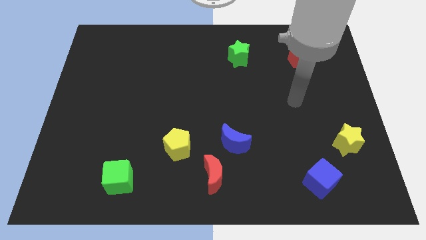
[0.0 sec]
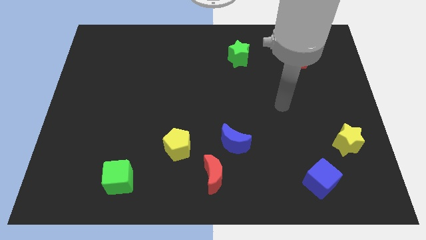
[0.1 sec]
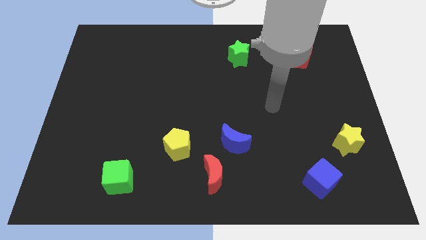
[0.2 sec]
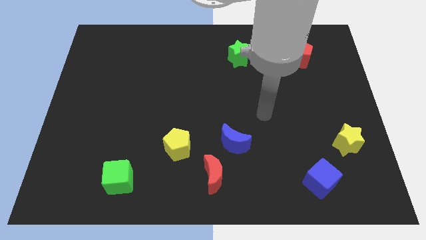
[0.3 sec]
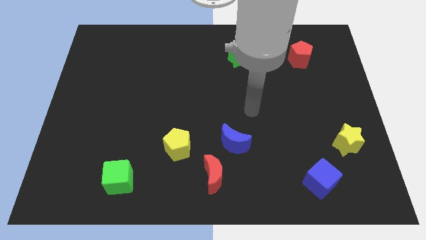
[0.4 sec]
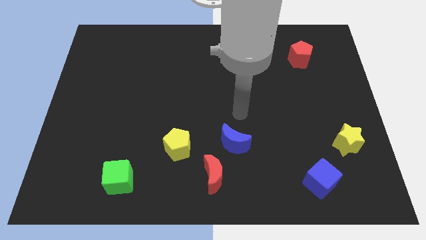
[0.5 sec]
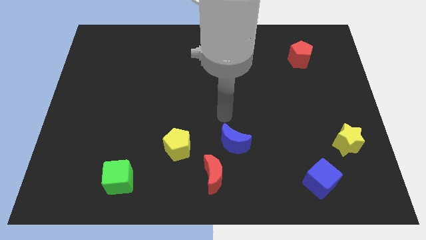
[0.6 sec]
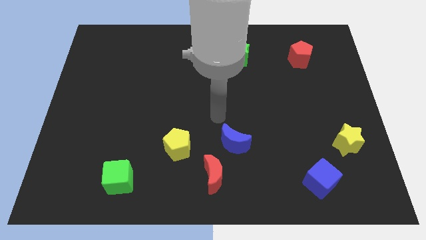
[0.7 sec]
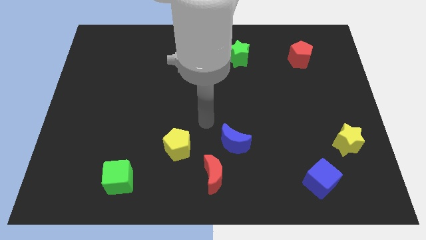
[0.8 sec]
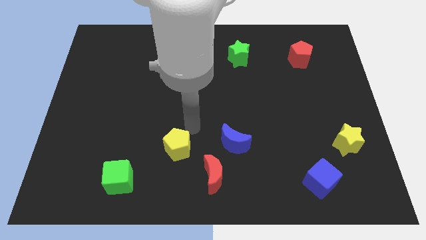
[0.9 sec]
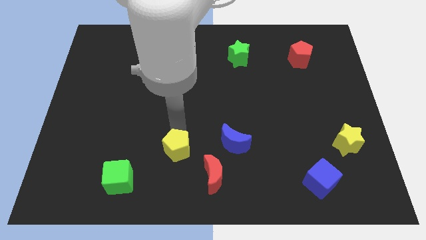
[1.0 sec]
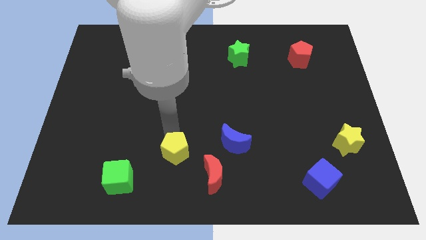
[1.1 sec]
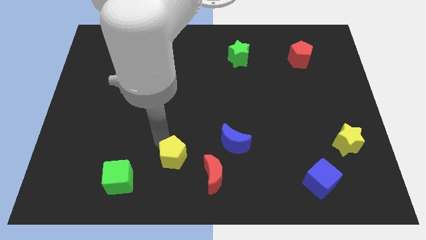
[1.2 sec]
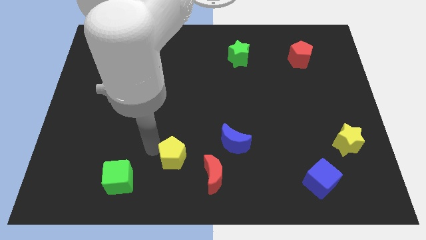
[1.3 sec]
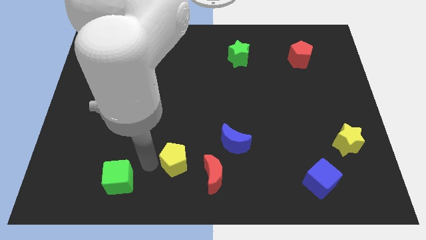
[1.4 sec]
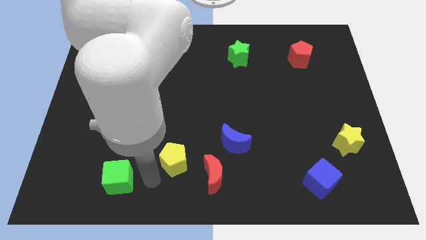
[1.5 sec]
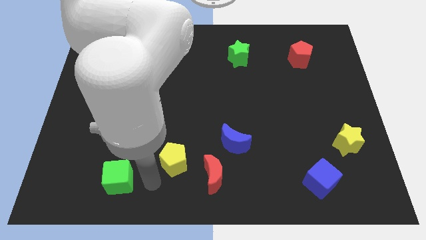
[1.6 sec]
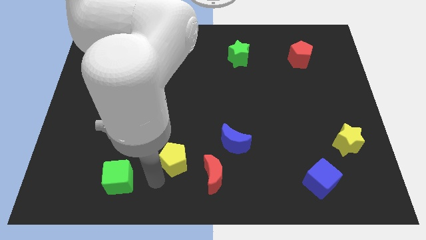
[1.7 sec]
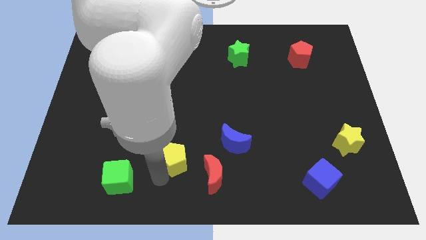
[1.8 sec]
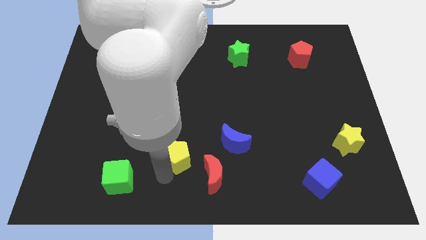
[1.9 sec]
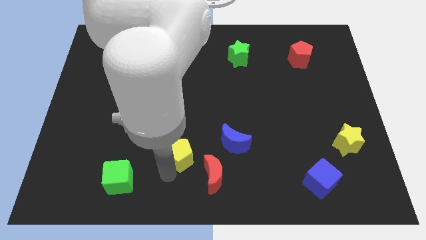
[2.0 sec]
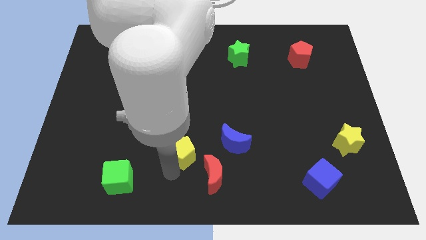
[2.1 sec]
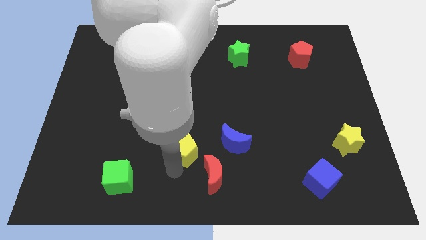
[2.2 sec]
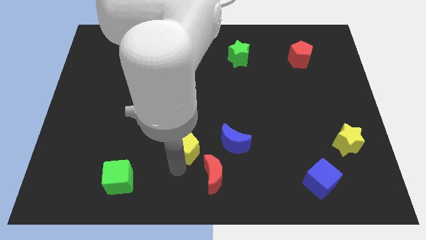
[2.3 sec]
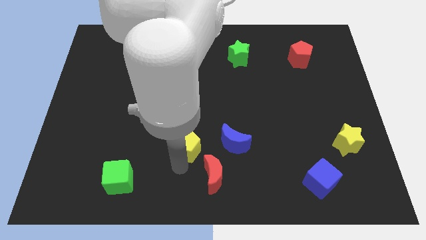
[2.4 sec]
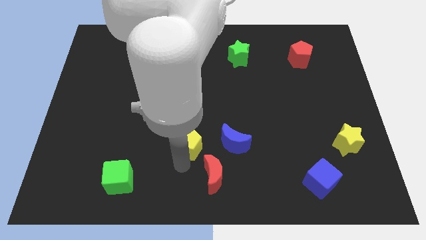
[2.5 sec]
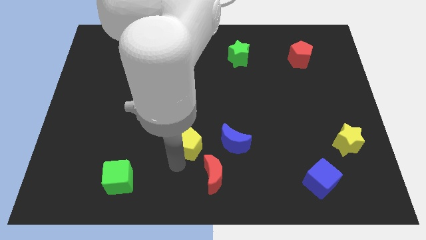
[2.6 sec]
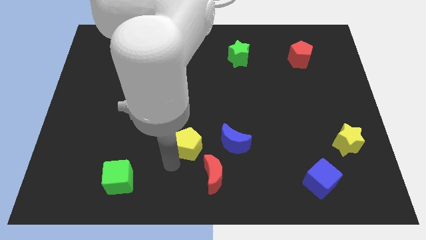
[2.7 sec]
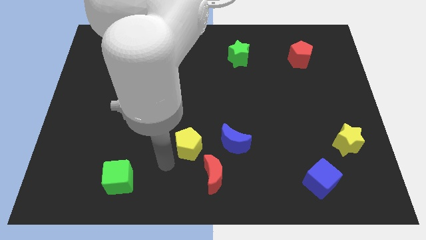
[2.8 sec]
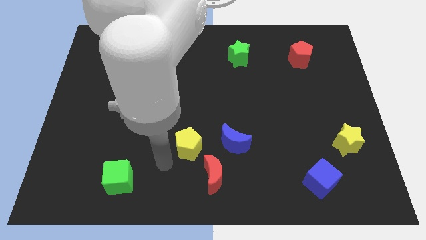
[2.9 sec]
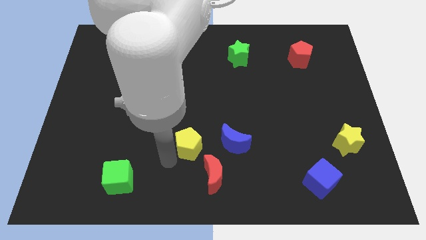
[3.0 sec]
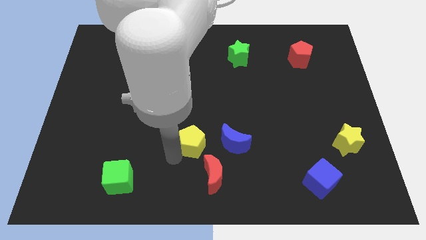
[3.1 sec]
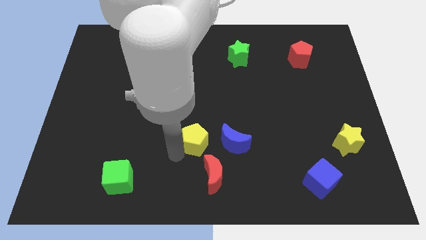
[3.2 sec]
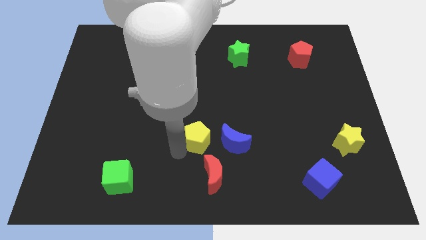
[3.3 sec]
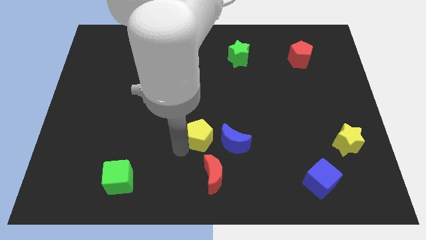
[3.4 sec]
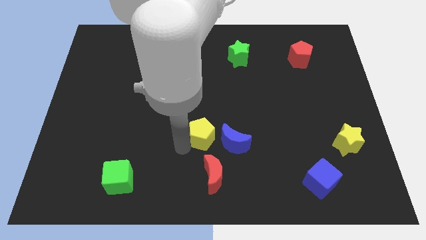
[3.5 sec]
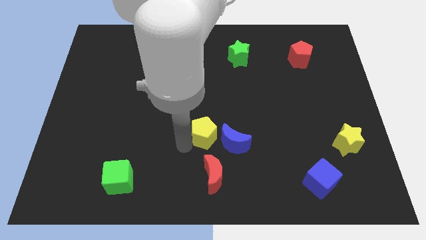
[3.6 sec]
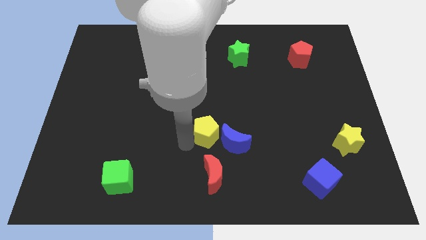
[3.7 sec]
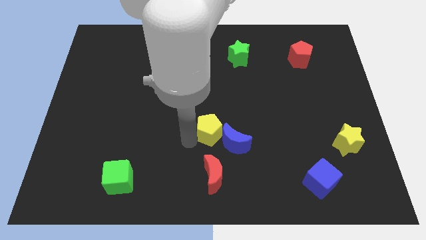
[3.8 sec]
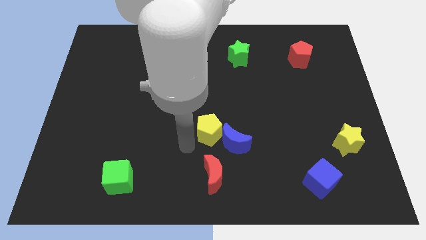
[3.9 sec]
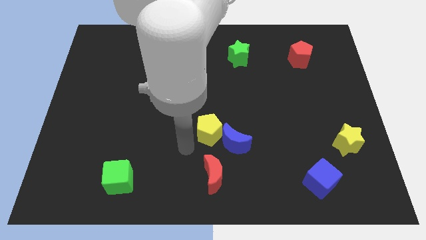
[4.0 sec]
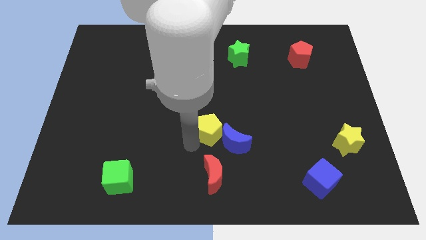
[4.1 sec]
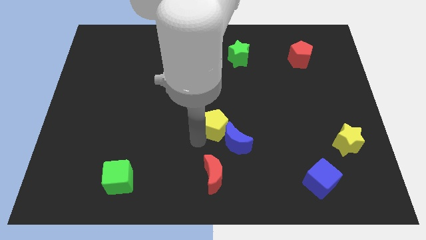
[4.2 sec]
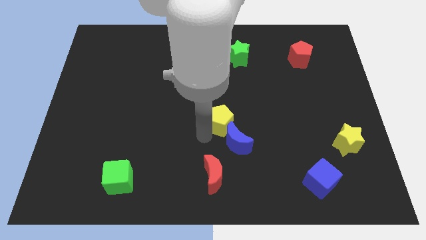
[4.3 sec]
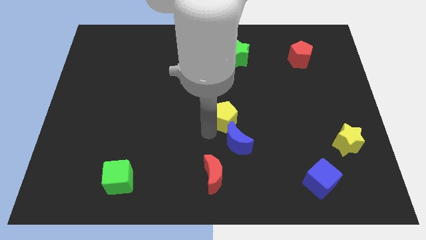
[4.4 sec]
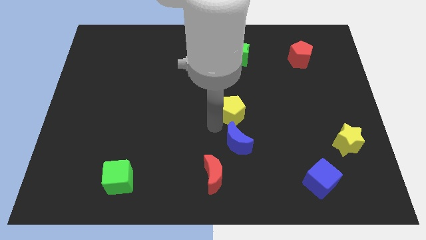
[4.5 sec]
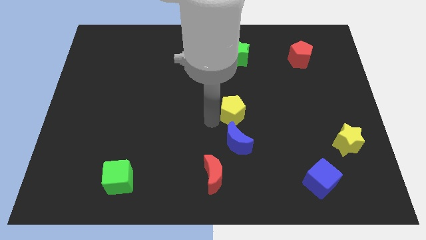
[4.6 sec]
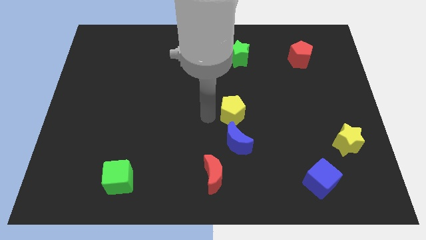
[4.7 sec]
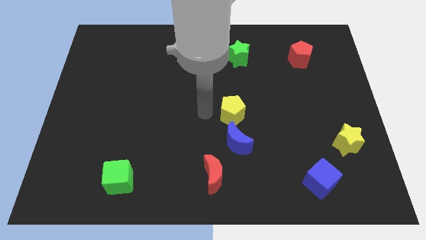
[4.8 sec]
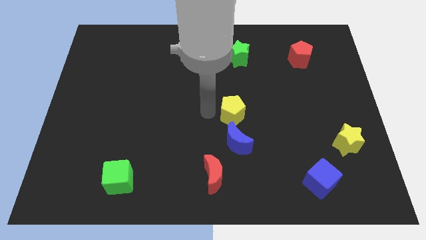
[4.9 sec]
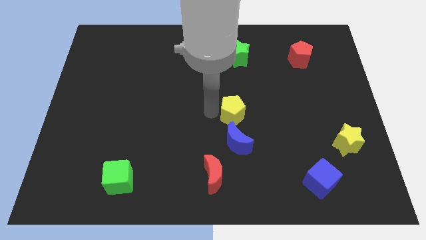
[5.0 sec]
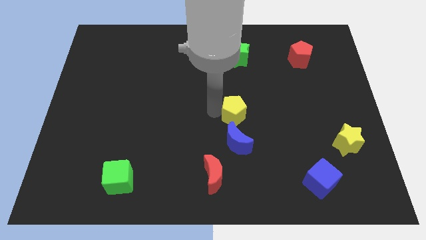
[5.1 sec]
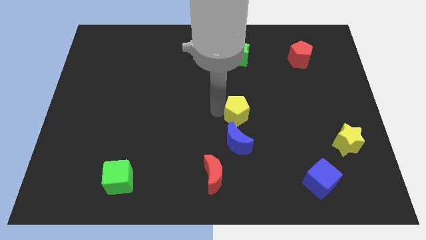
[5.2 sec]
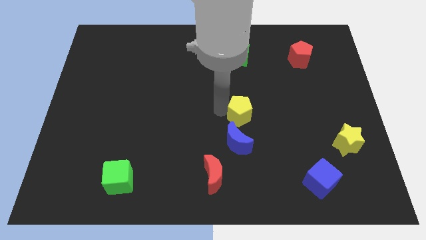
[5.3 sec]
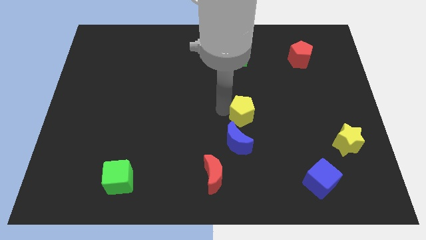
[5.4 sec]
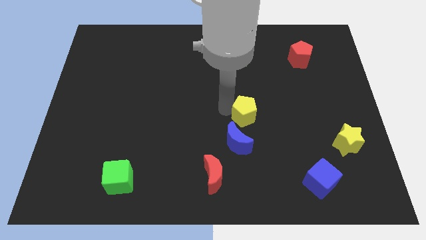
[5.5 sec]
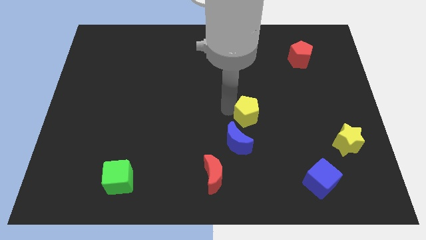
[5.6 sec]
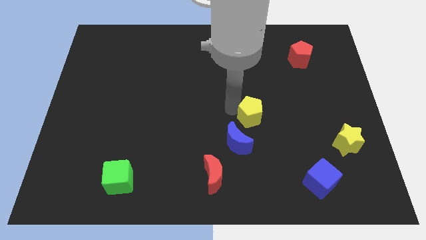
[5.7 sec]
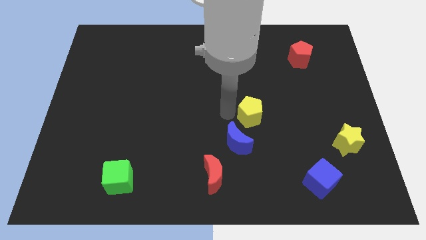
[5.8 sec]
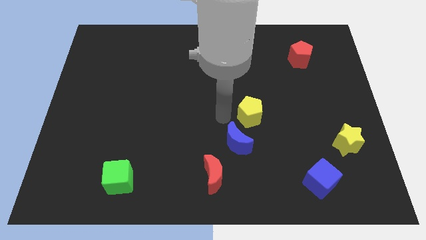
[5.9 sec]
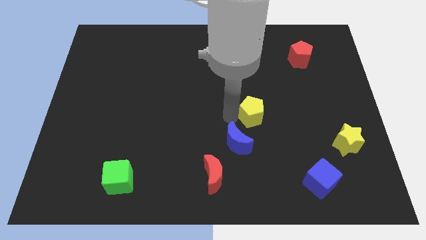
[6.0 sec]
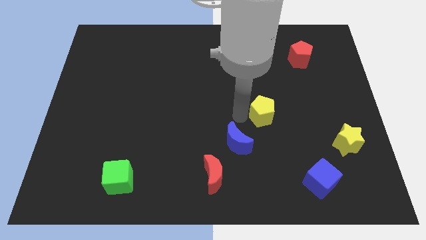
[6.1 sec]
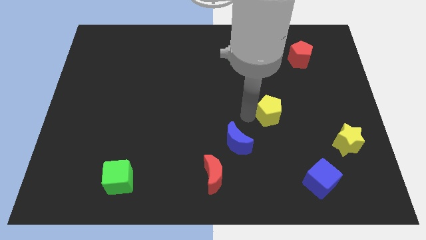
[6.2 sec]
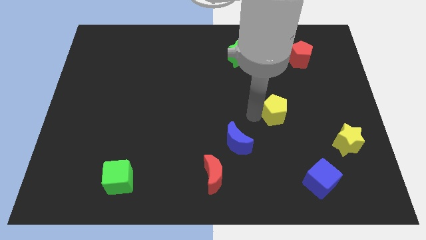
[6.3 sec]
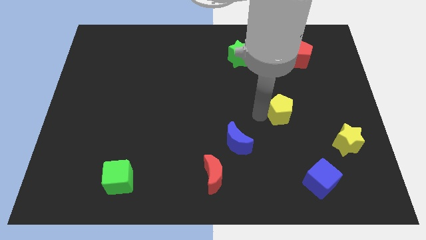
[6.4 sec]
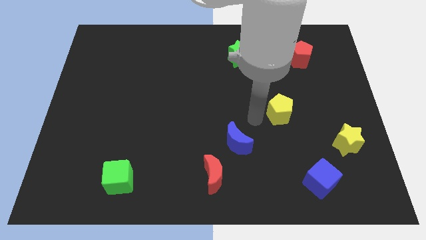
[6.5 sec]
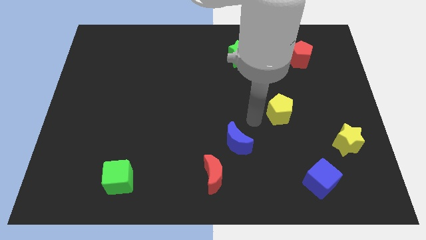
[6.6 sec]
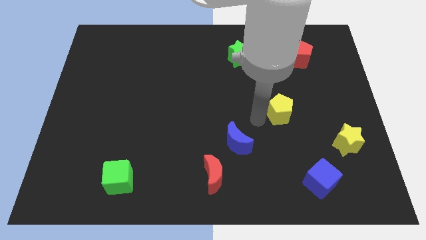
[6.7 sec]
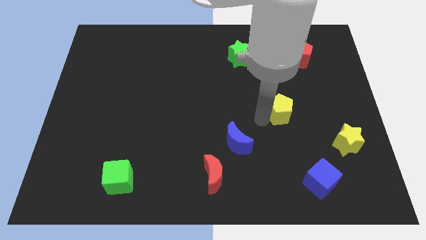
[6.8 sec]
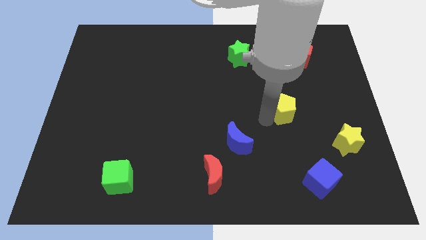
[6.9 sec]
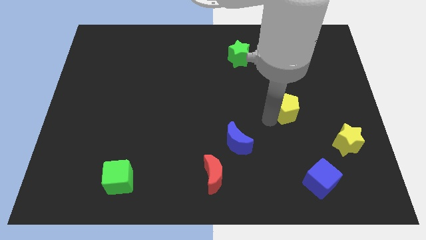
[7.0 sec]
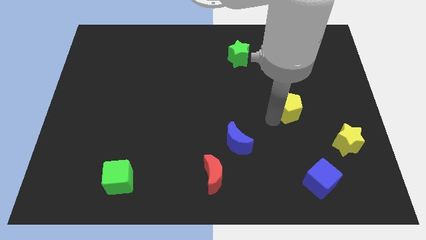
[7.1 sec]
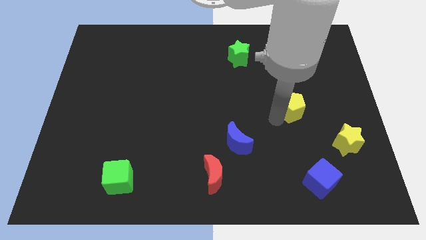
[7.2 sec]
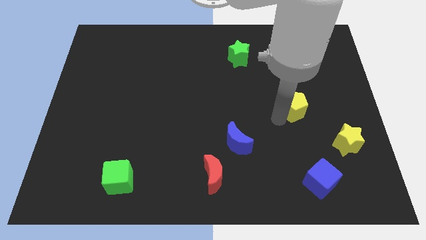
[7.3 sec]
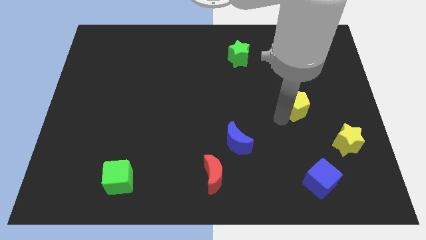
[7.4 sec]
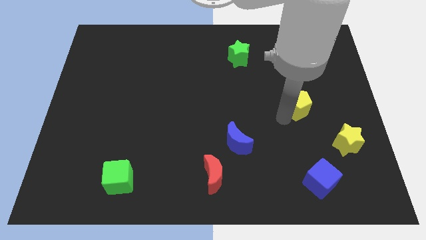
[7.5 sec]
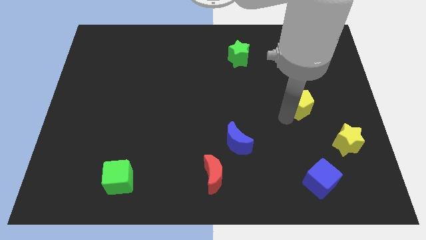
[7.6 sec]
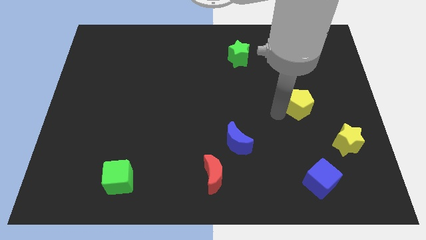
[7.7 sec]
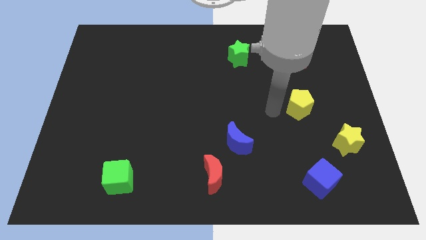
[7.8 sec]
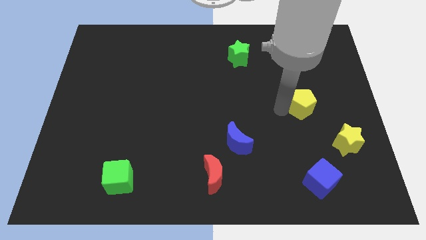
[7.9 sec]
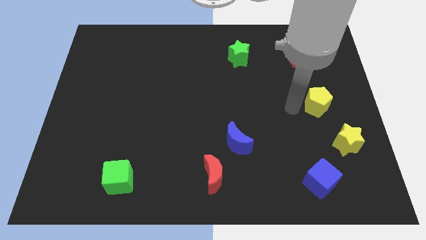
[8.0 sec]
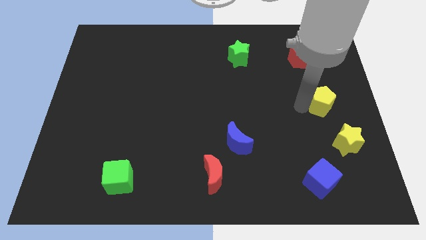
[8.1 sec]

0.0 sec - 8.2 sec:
move the yellow pentagon to the center right
